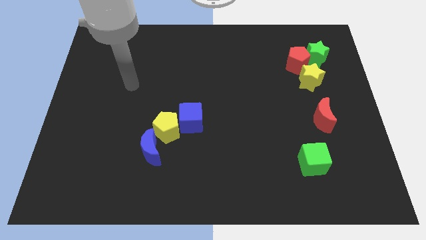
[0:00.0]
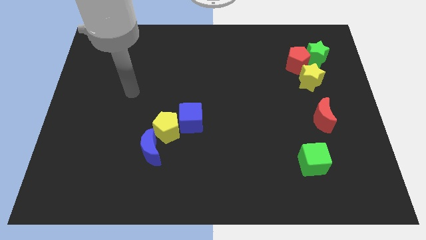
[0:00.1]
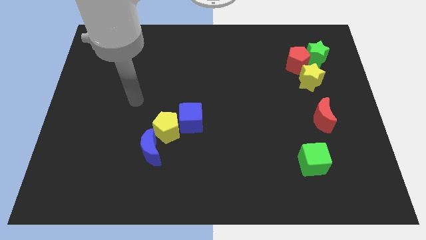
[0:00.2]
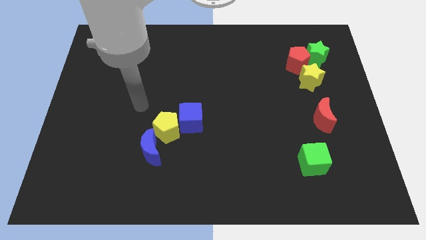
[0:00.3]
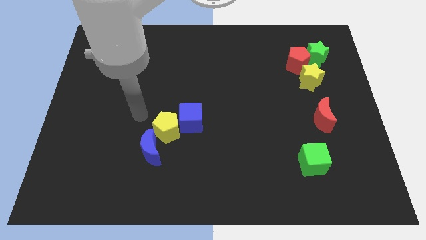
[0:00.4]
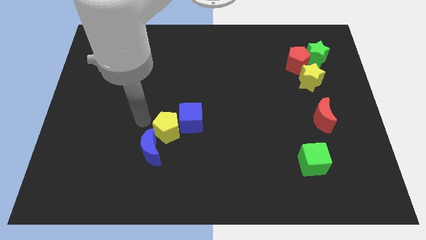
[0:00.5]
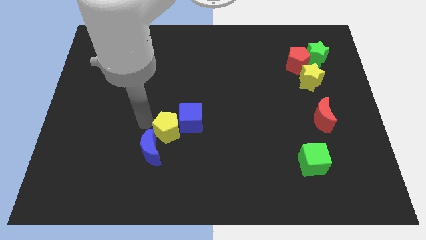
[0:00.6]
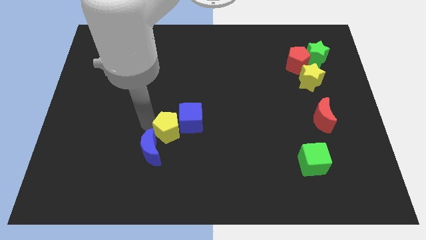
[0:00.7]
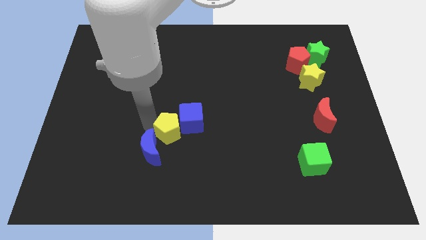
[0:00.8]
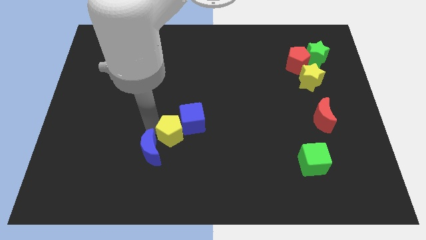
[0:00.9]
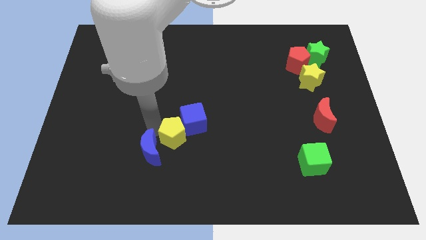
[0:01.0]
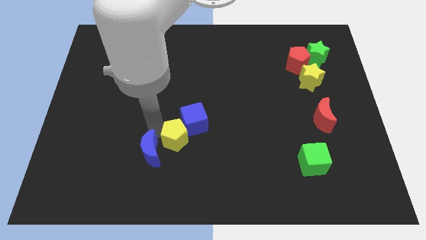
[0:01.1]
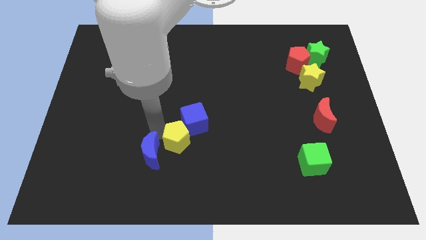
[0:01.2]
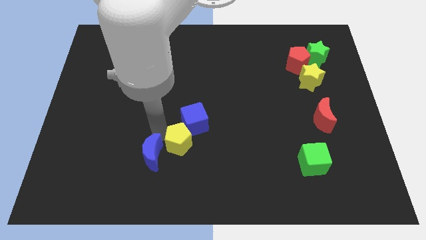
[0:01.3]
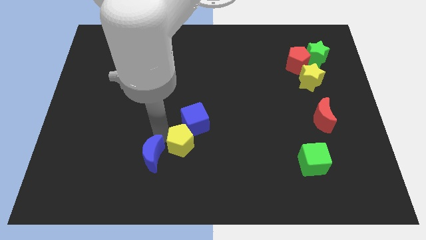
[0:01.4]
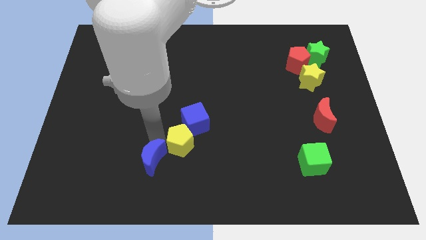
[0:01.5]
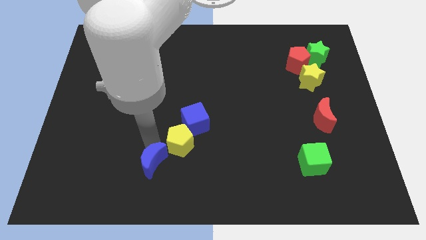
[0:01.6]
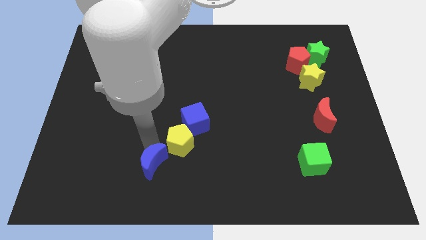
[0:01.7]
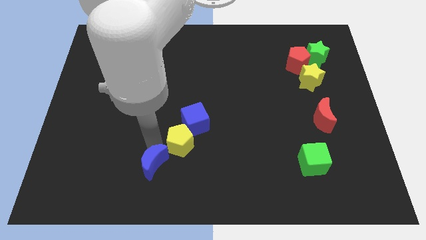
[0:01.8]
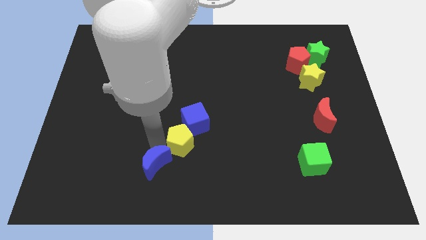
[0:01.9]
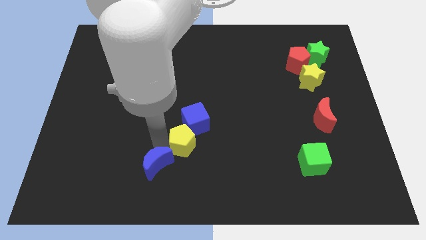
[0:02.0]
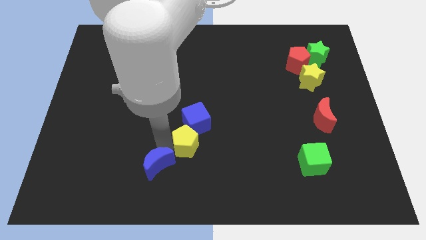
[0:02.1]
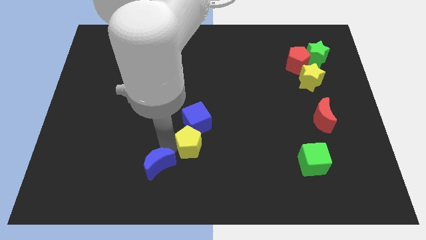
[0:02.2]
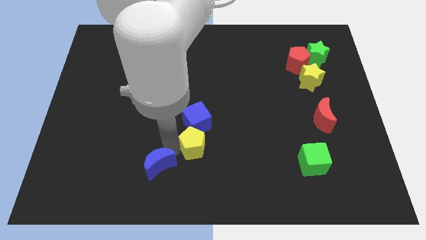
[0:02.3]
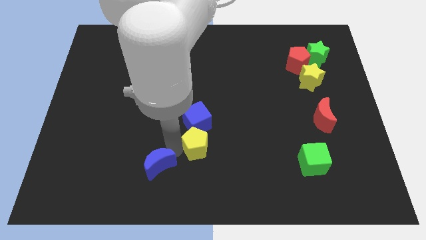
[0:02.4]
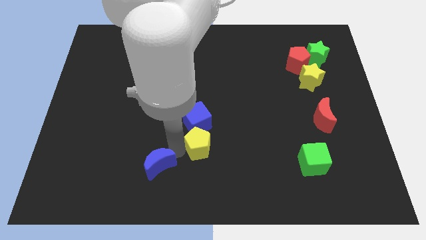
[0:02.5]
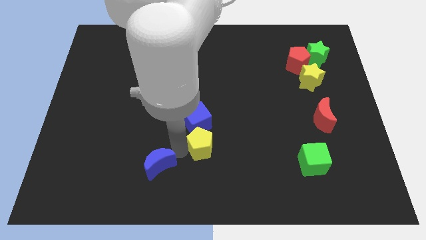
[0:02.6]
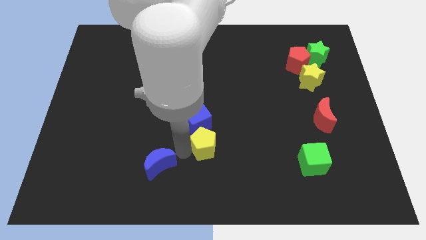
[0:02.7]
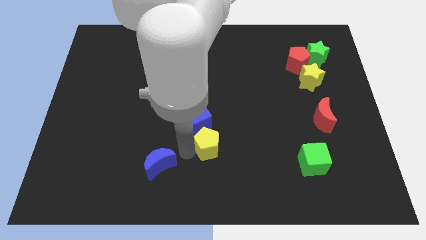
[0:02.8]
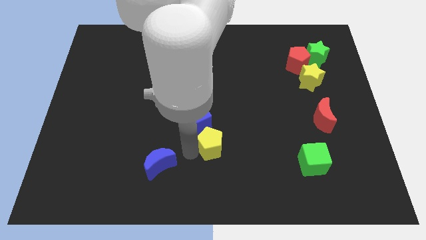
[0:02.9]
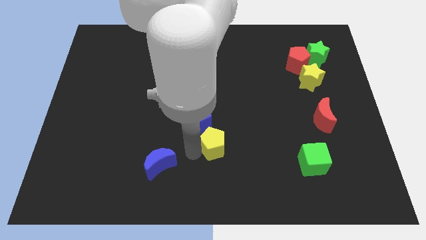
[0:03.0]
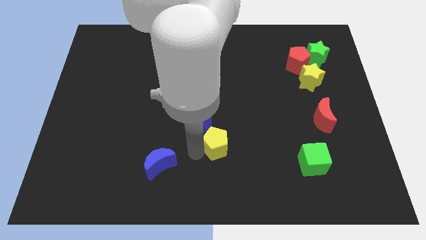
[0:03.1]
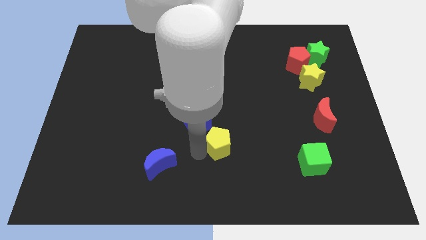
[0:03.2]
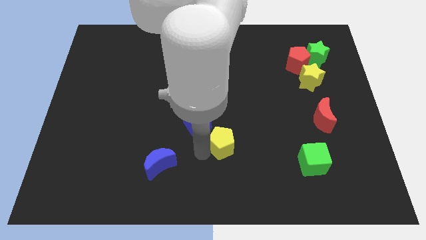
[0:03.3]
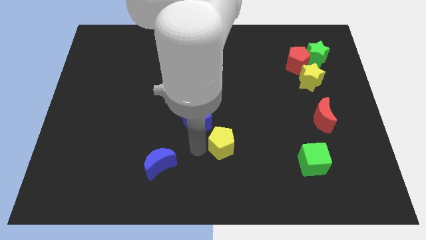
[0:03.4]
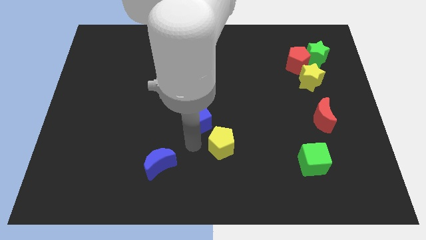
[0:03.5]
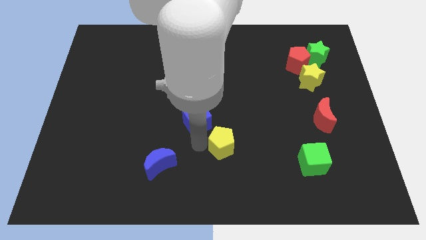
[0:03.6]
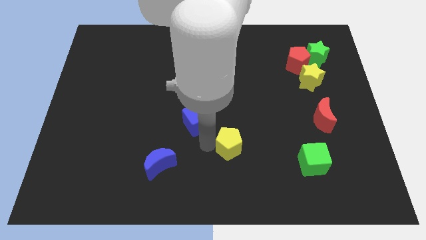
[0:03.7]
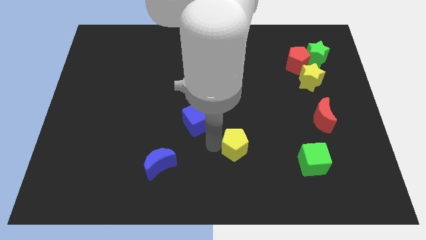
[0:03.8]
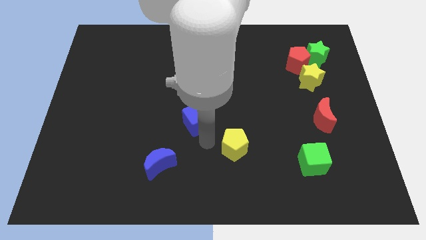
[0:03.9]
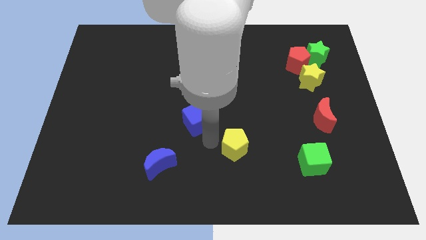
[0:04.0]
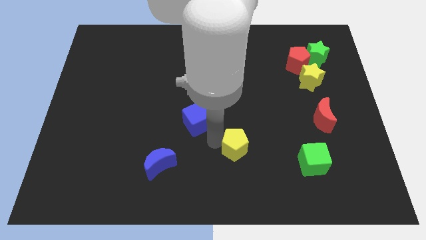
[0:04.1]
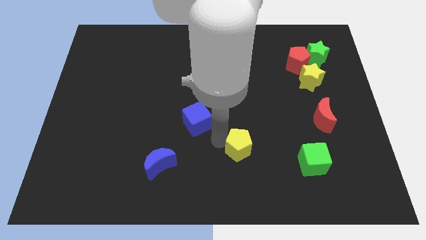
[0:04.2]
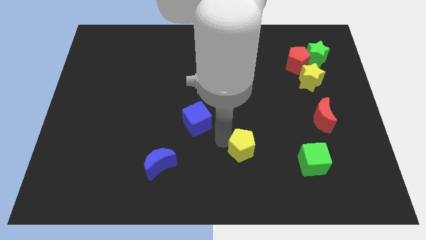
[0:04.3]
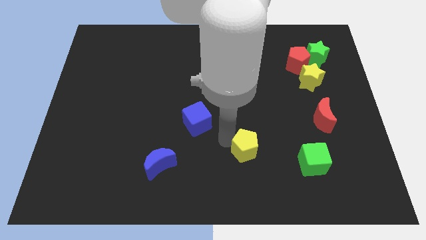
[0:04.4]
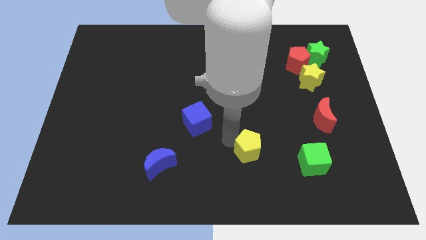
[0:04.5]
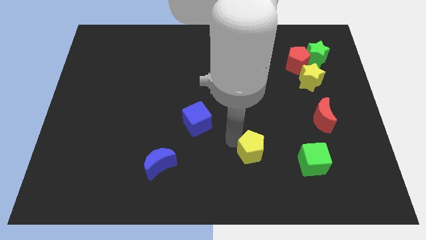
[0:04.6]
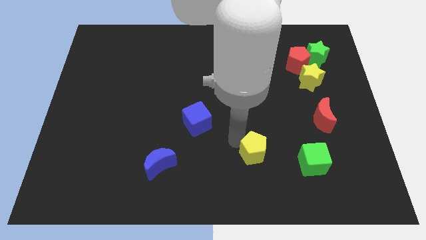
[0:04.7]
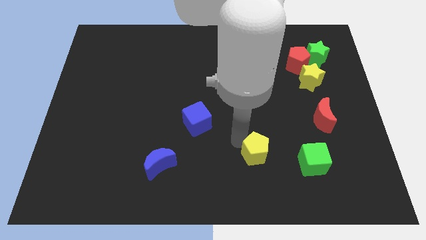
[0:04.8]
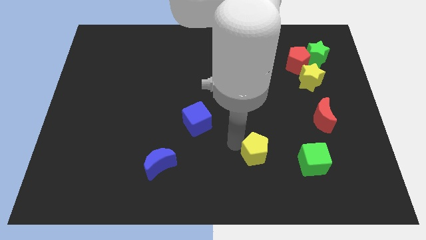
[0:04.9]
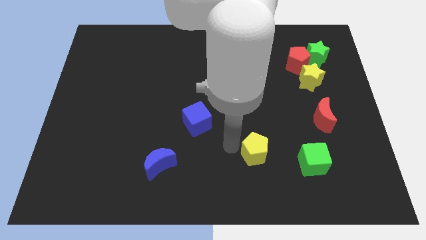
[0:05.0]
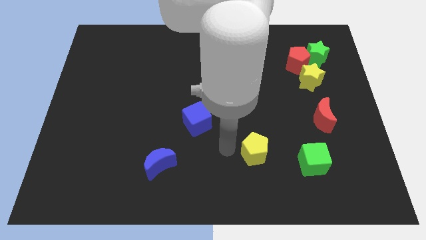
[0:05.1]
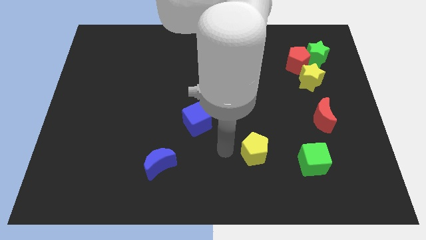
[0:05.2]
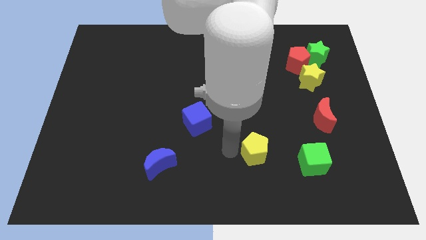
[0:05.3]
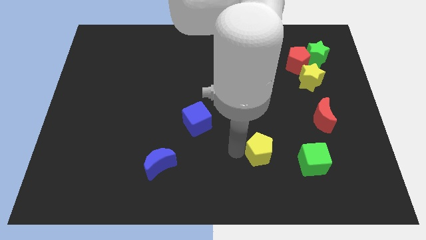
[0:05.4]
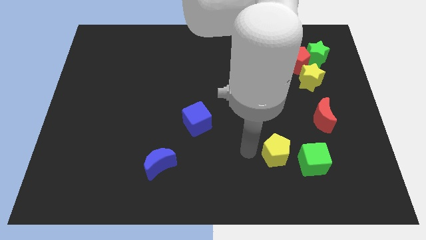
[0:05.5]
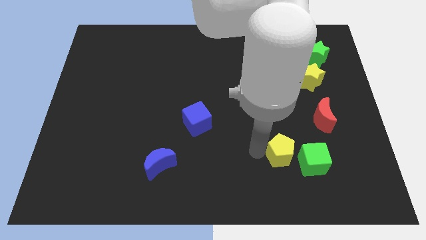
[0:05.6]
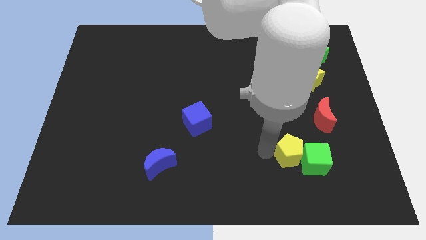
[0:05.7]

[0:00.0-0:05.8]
move the yellow pentagon to the green cube

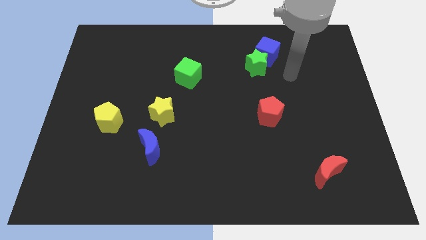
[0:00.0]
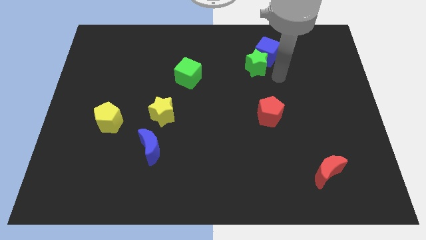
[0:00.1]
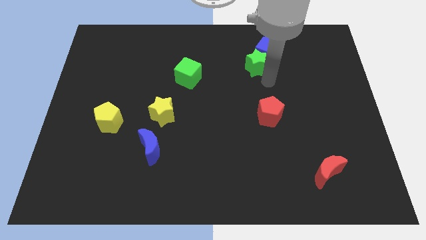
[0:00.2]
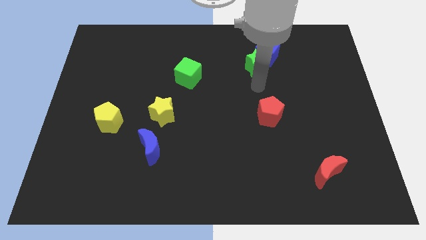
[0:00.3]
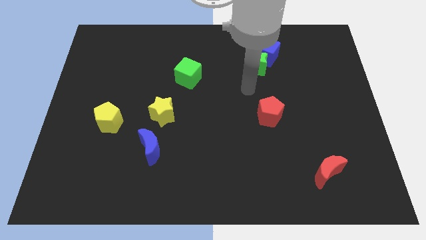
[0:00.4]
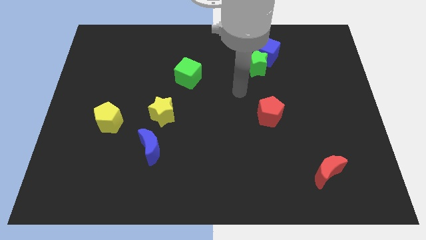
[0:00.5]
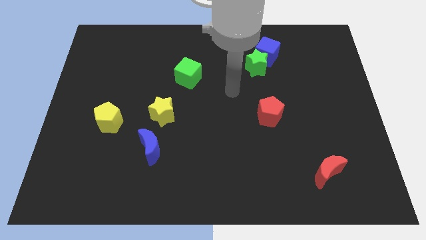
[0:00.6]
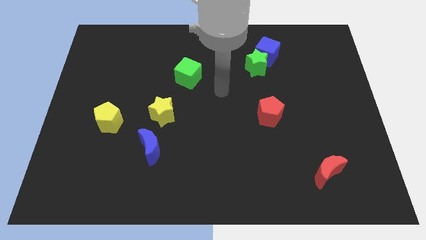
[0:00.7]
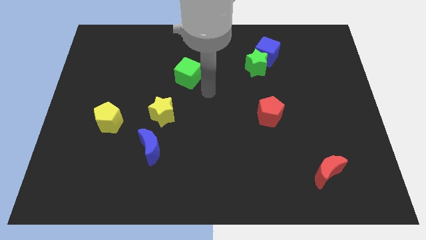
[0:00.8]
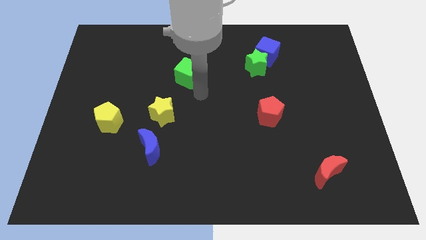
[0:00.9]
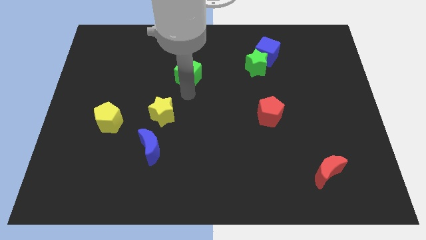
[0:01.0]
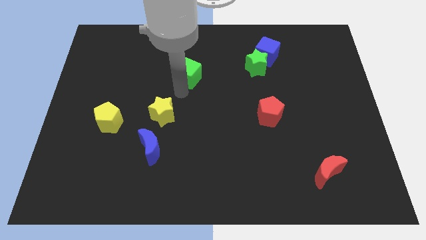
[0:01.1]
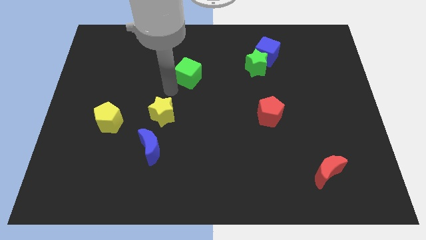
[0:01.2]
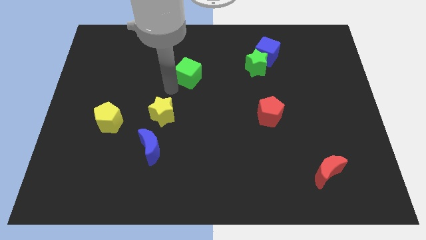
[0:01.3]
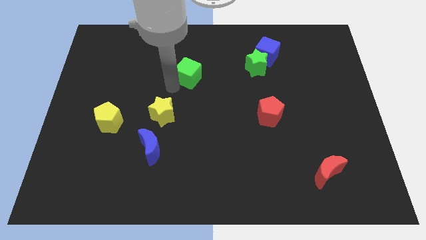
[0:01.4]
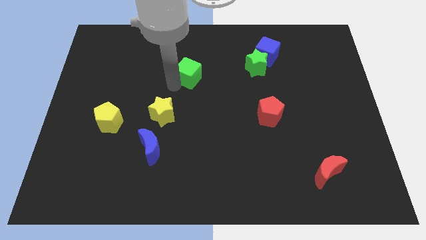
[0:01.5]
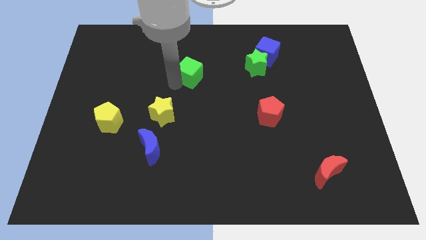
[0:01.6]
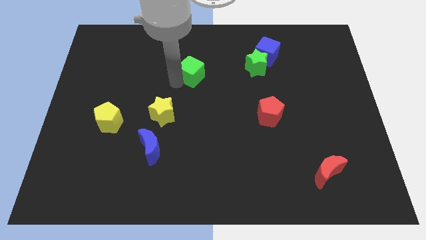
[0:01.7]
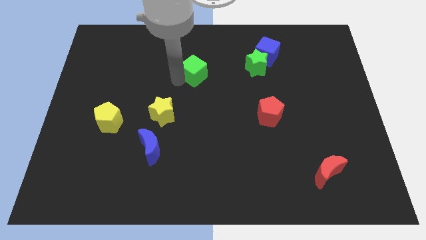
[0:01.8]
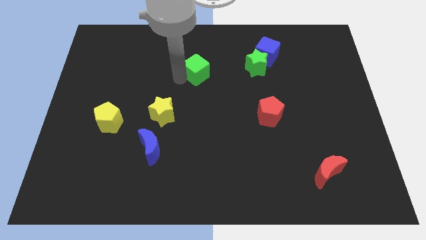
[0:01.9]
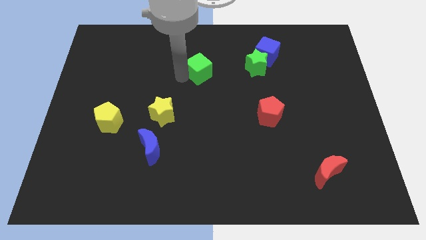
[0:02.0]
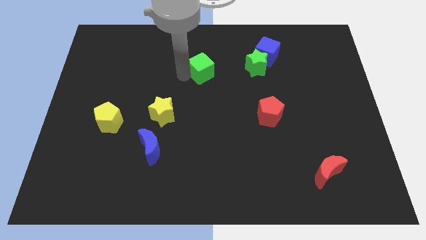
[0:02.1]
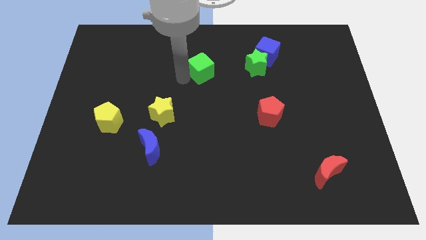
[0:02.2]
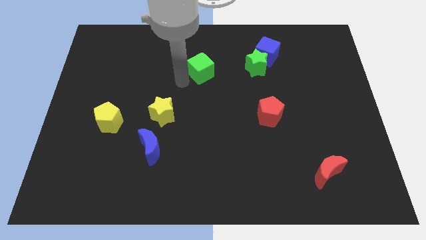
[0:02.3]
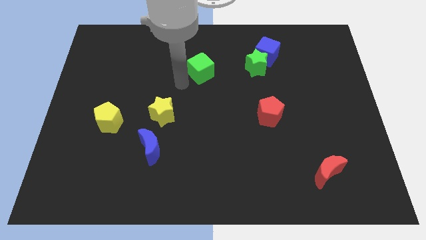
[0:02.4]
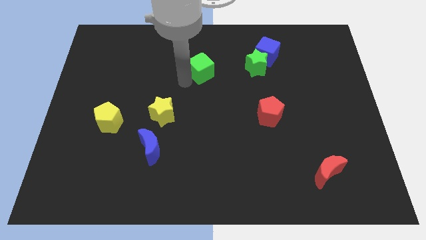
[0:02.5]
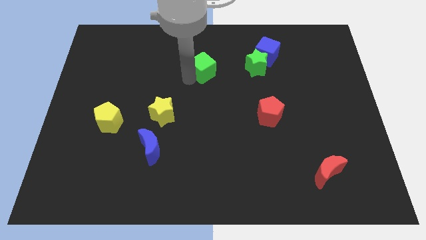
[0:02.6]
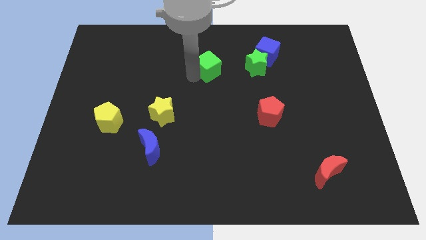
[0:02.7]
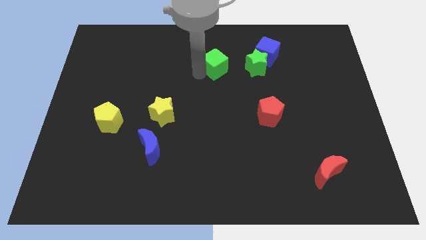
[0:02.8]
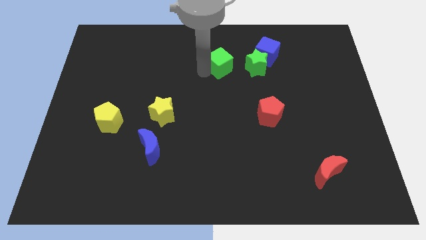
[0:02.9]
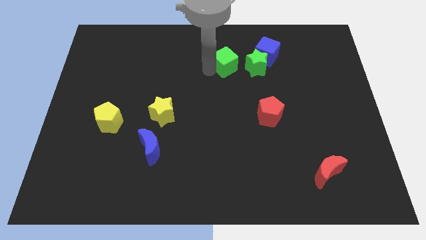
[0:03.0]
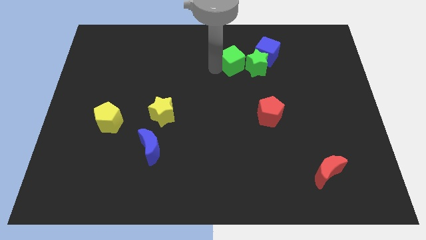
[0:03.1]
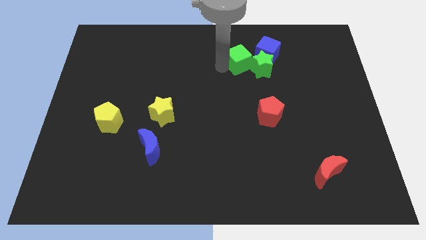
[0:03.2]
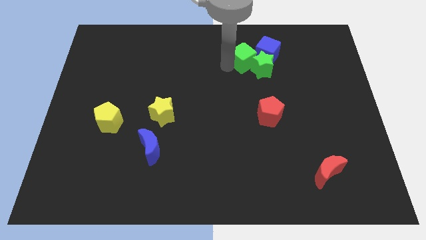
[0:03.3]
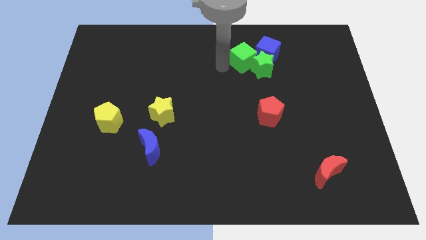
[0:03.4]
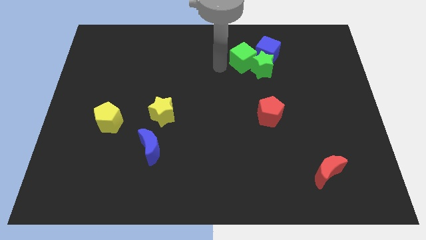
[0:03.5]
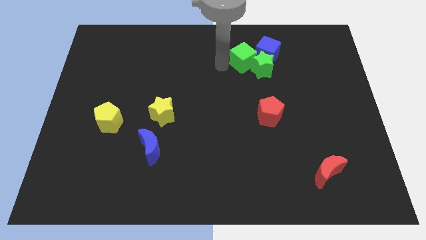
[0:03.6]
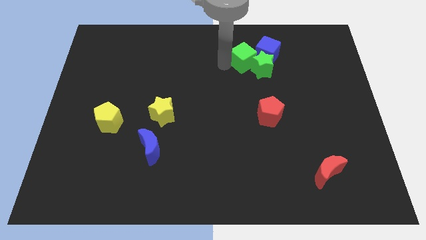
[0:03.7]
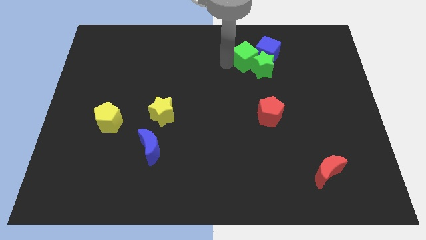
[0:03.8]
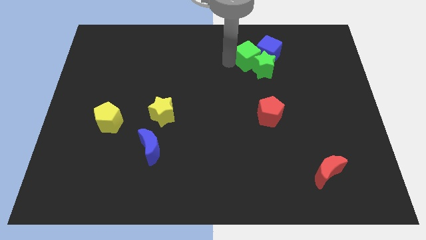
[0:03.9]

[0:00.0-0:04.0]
put the green cube to the blue cube
